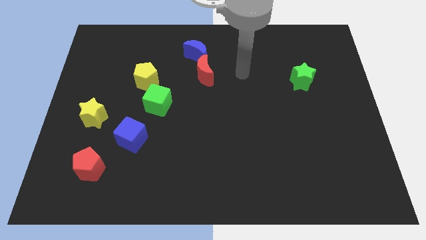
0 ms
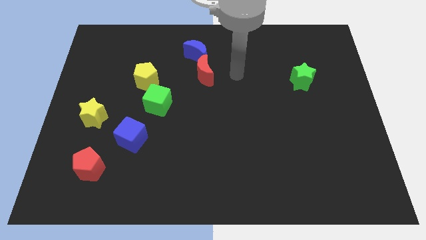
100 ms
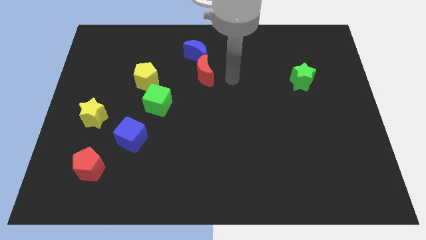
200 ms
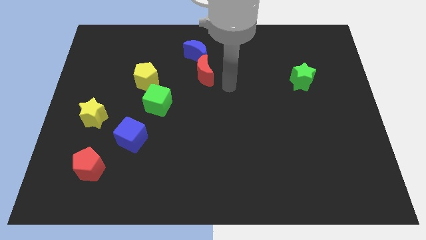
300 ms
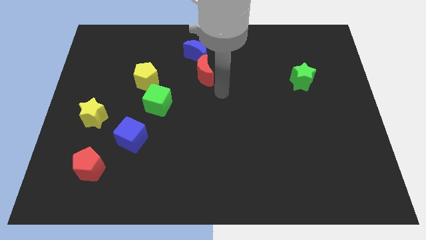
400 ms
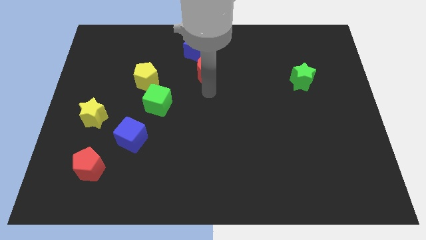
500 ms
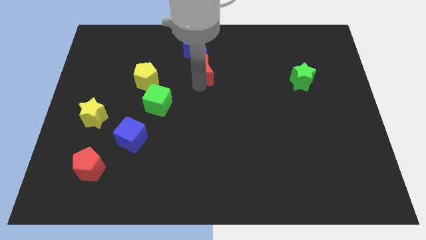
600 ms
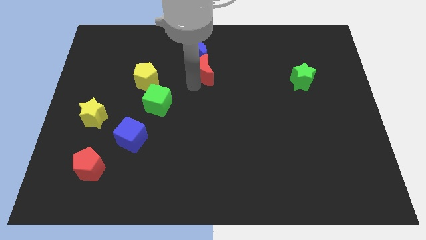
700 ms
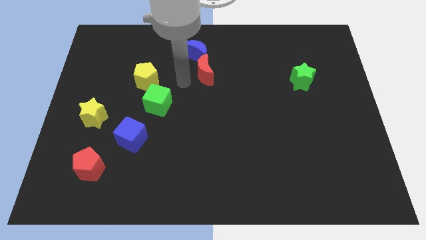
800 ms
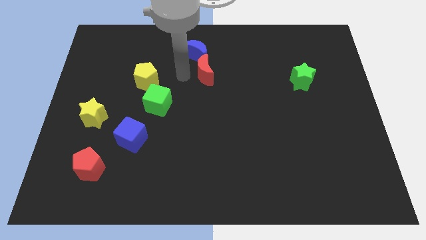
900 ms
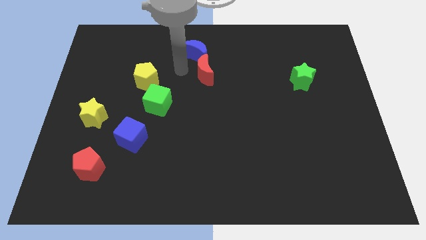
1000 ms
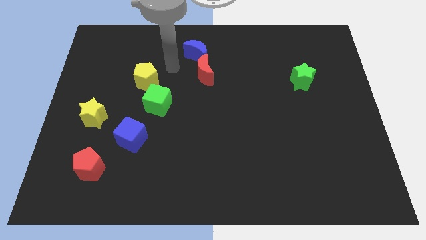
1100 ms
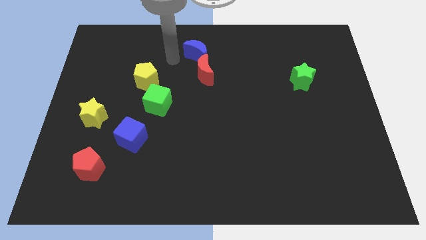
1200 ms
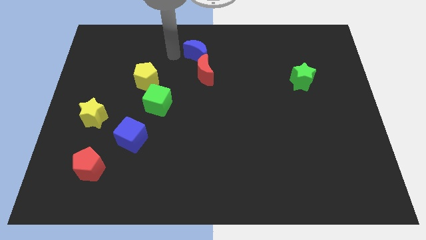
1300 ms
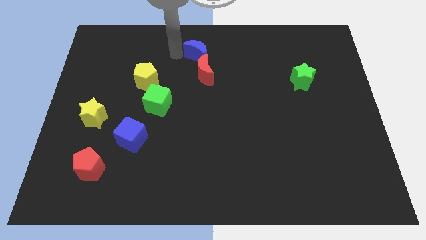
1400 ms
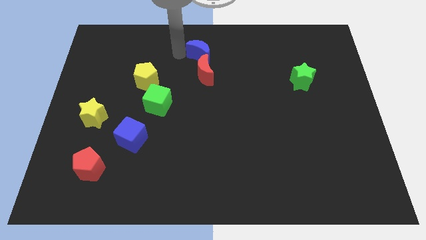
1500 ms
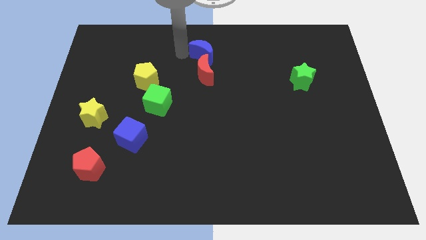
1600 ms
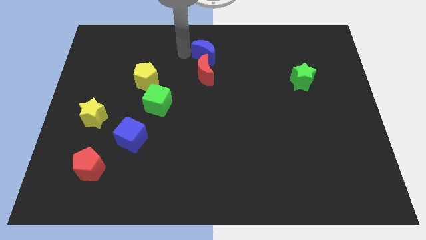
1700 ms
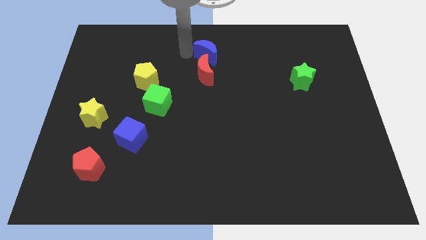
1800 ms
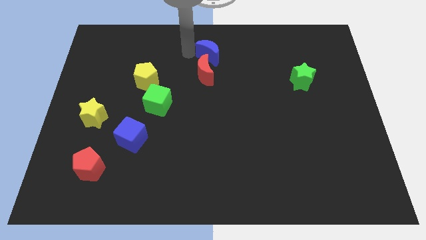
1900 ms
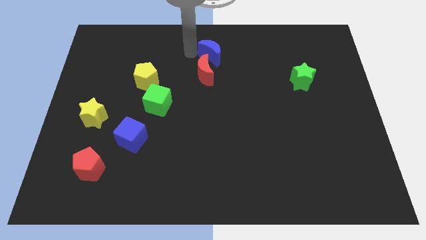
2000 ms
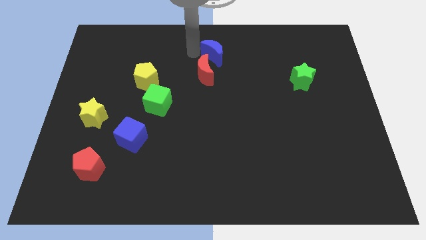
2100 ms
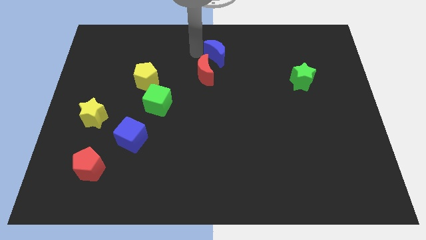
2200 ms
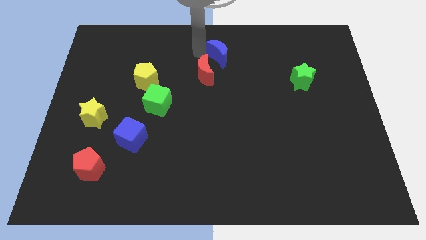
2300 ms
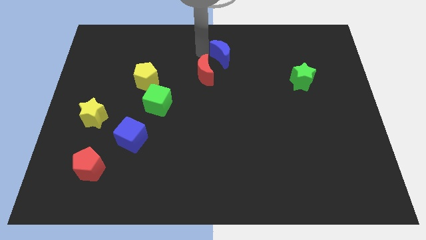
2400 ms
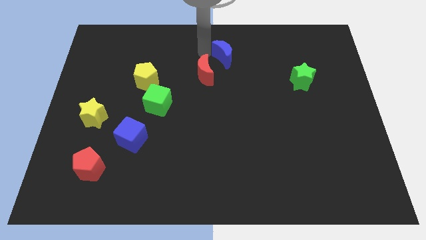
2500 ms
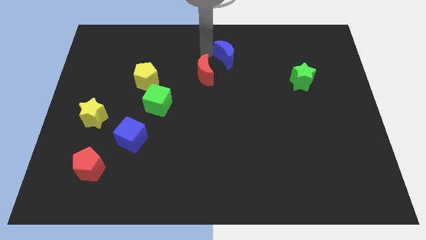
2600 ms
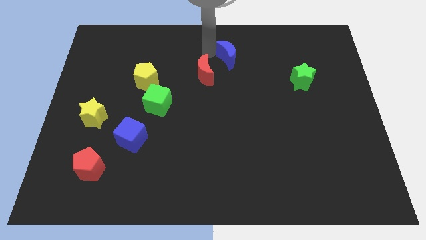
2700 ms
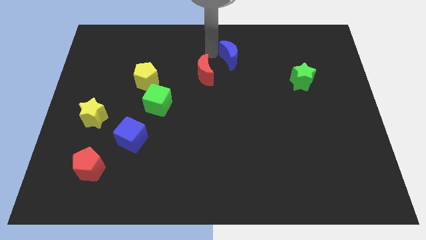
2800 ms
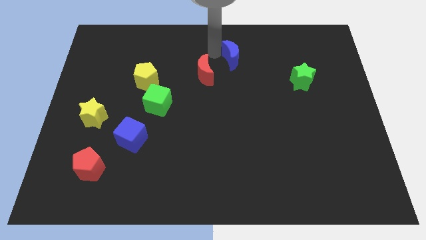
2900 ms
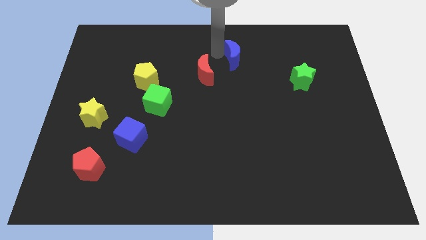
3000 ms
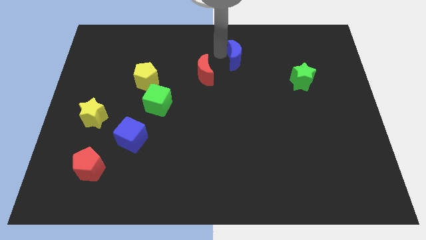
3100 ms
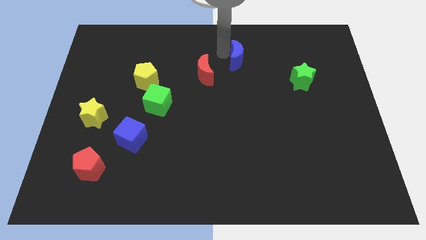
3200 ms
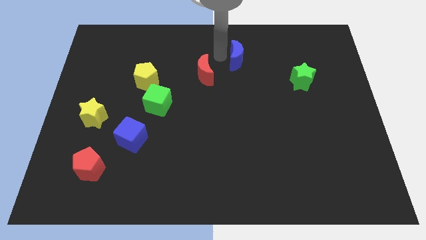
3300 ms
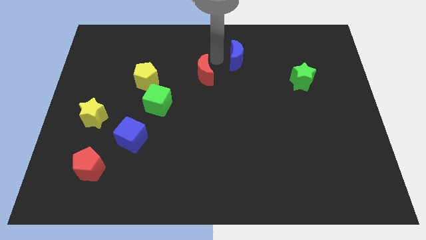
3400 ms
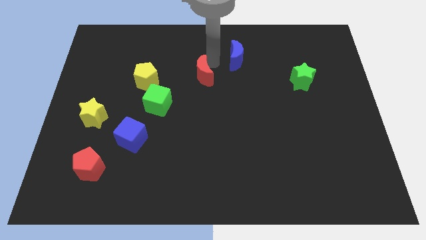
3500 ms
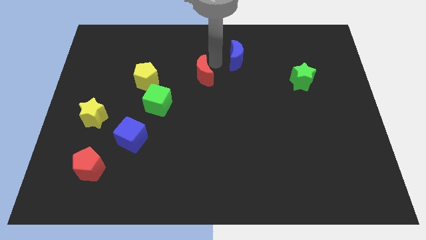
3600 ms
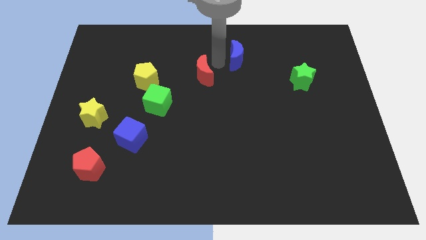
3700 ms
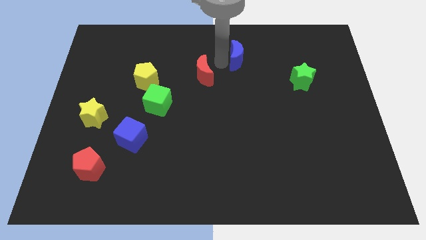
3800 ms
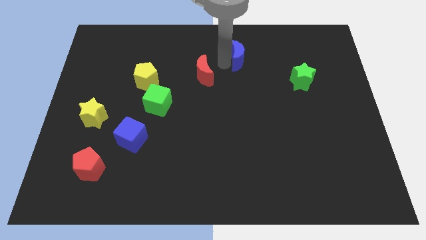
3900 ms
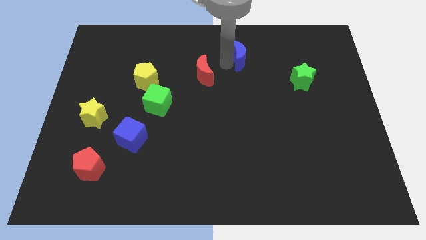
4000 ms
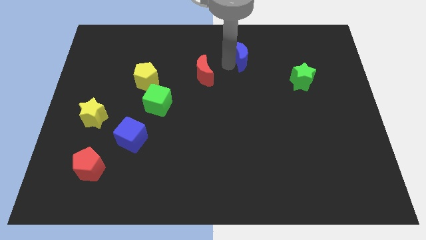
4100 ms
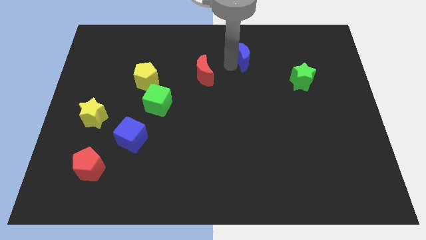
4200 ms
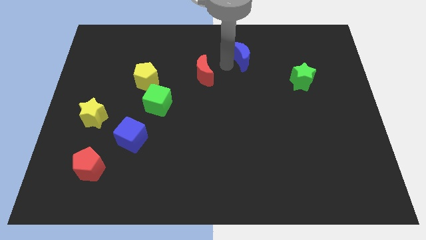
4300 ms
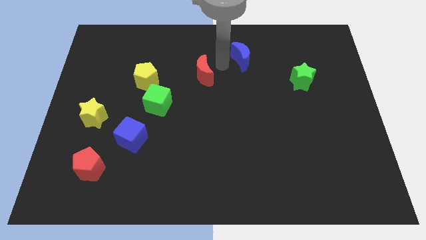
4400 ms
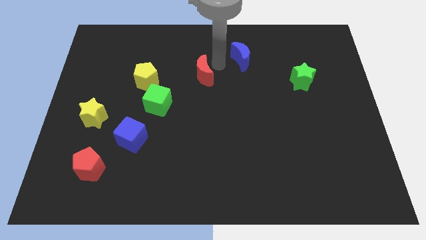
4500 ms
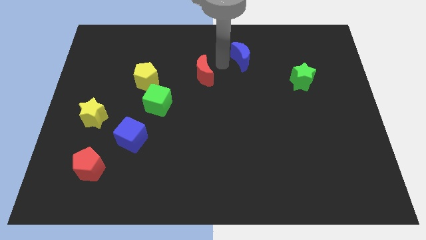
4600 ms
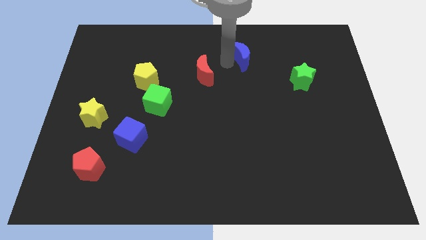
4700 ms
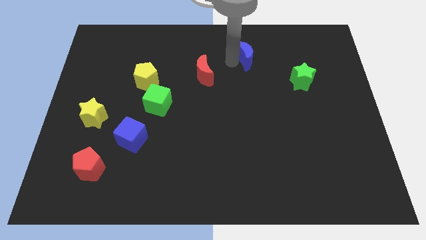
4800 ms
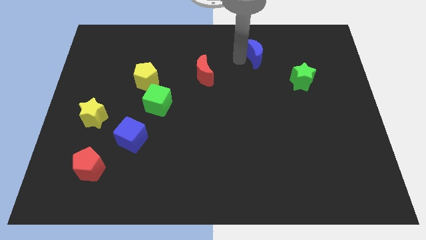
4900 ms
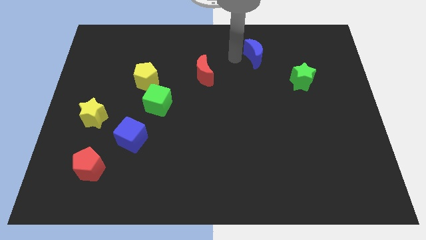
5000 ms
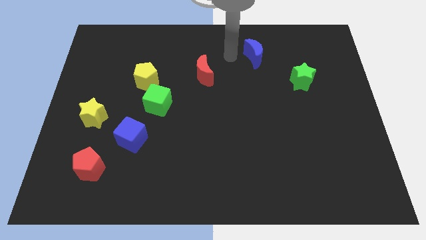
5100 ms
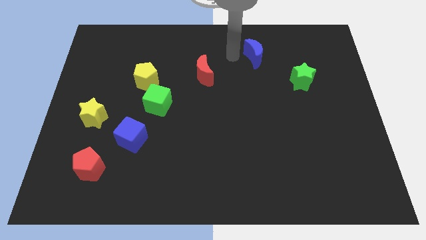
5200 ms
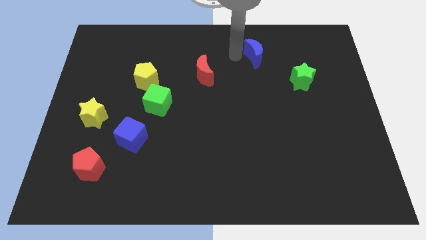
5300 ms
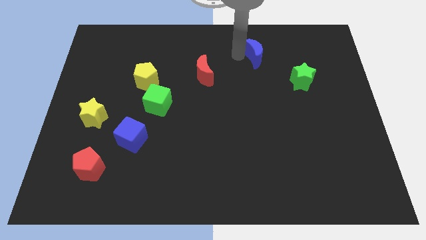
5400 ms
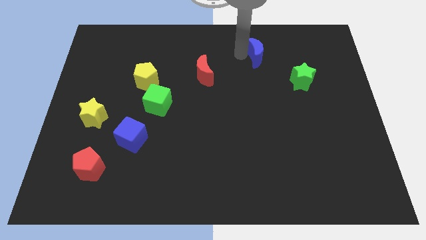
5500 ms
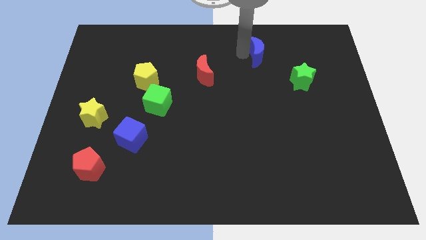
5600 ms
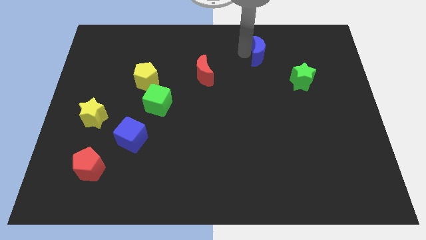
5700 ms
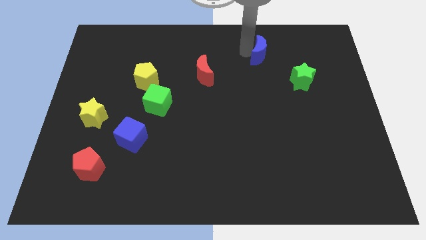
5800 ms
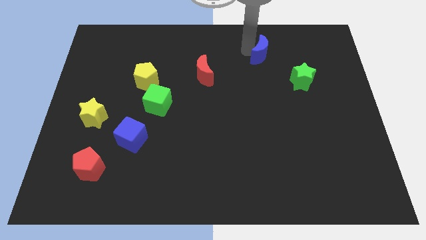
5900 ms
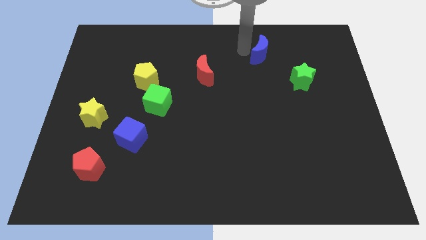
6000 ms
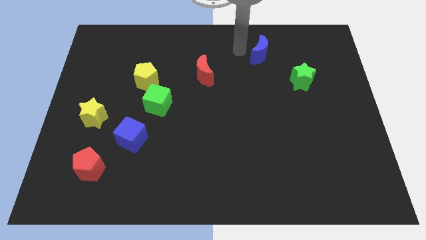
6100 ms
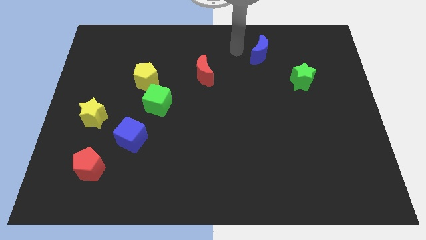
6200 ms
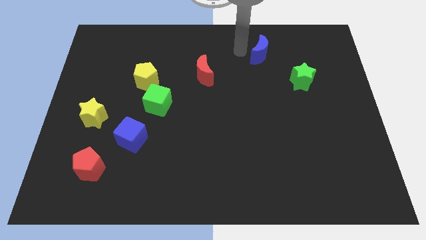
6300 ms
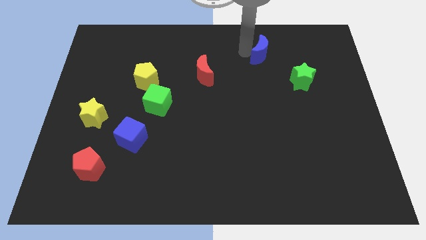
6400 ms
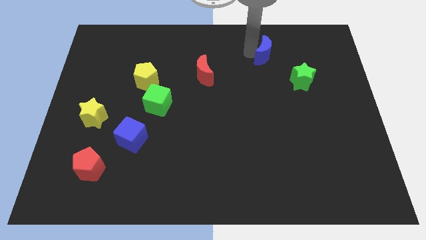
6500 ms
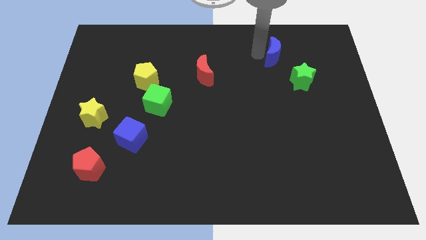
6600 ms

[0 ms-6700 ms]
slide the blue moon right

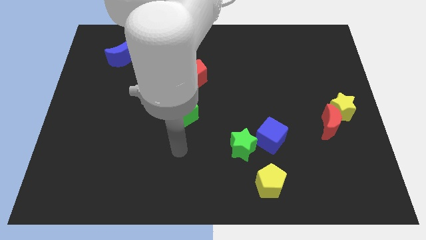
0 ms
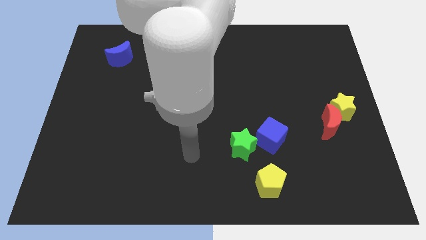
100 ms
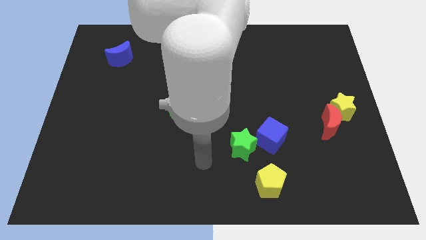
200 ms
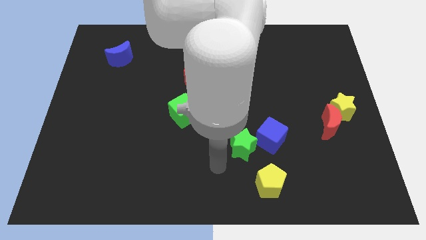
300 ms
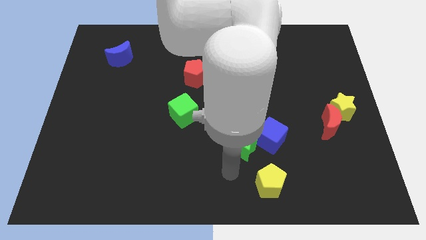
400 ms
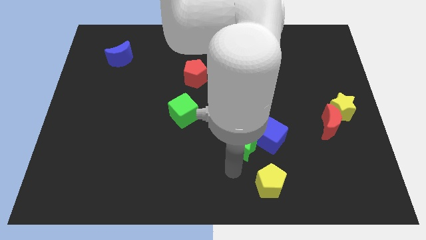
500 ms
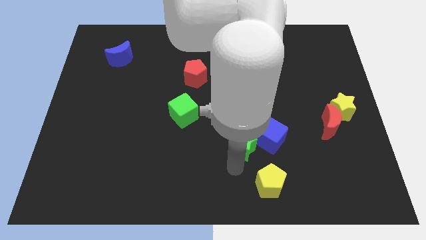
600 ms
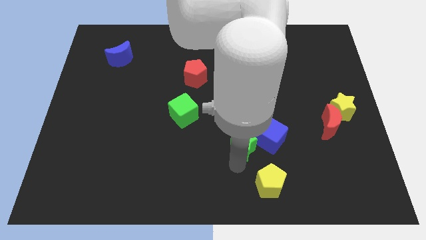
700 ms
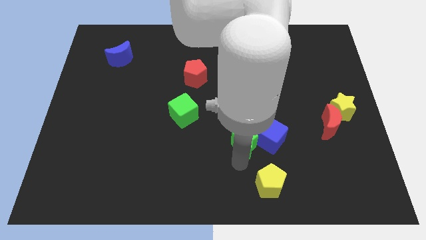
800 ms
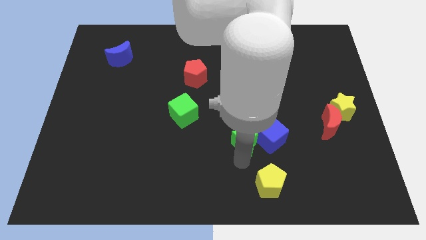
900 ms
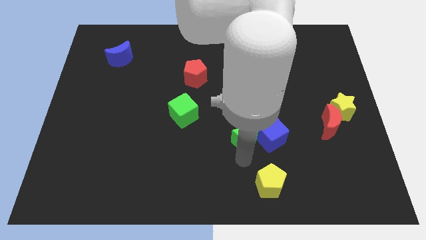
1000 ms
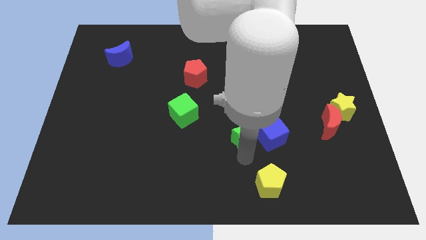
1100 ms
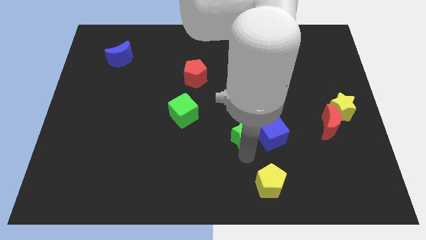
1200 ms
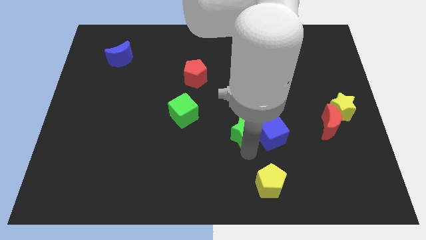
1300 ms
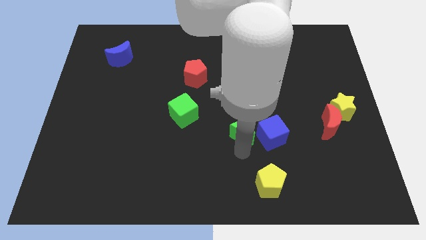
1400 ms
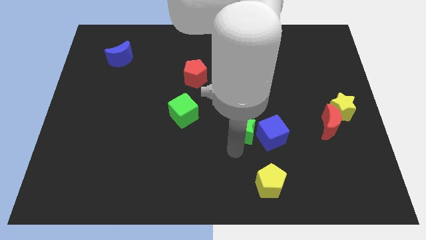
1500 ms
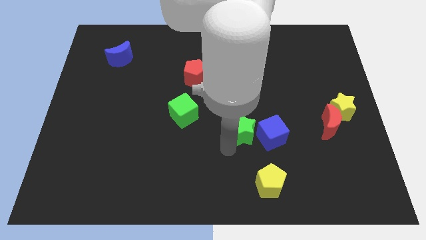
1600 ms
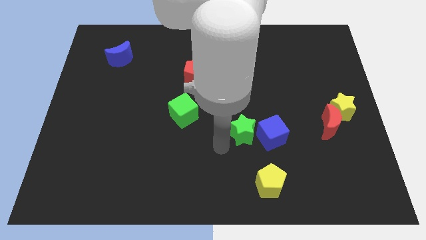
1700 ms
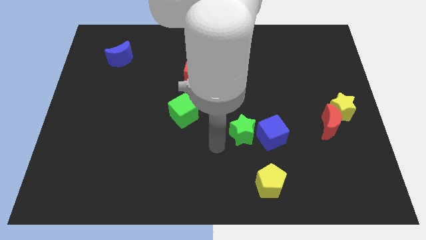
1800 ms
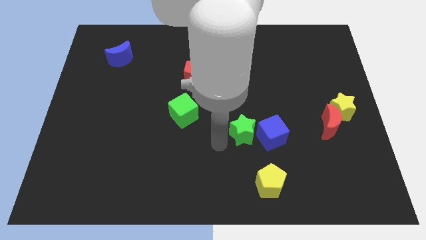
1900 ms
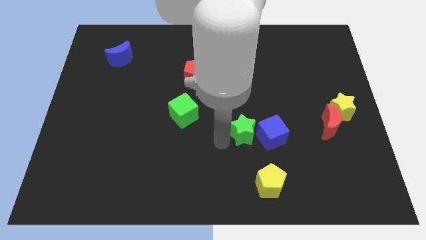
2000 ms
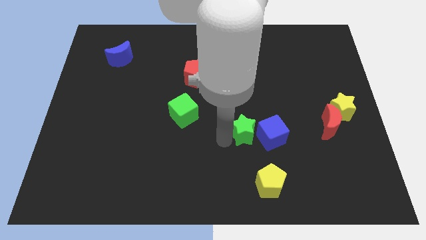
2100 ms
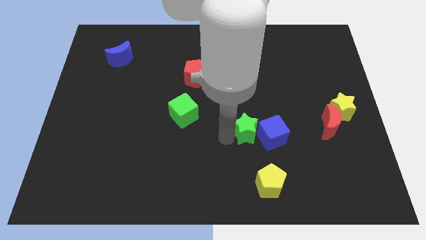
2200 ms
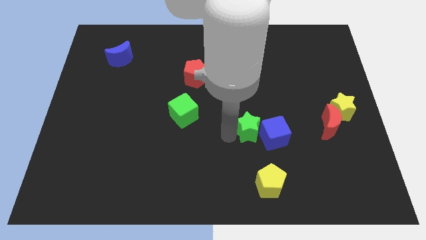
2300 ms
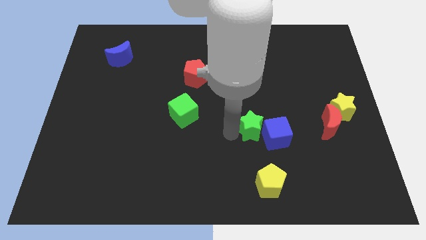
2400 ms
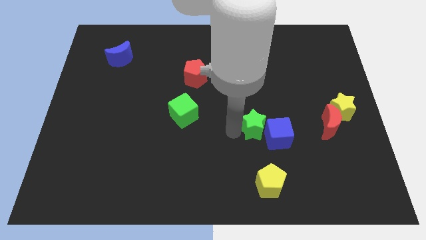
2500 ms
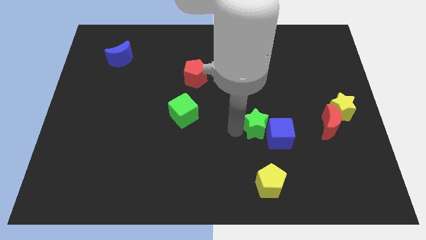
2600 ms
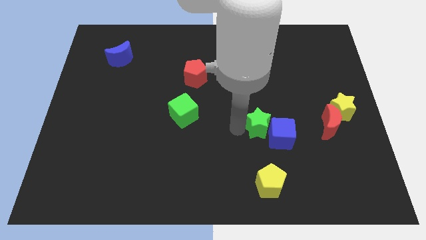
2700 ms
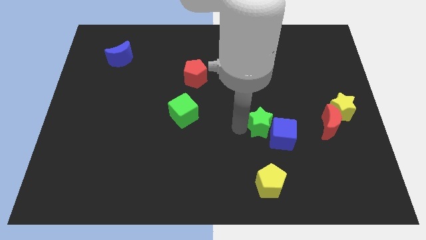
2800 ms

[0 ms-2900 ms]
move the green star a little bit upwards and right
